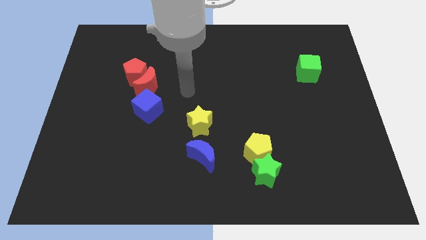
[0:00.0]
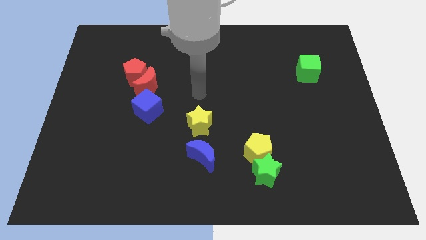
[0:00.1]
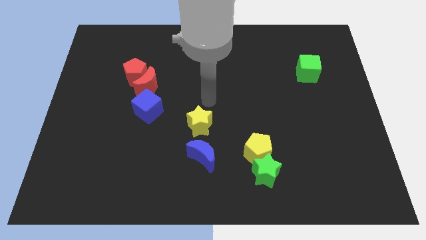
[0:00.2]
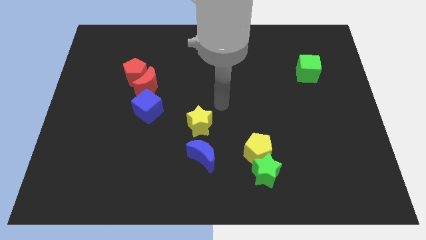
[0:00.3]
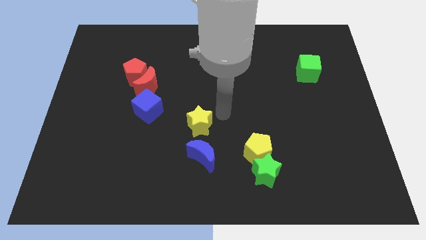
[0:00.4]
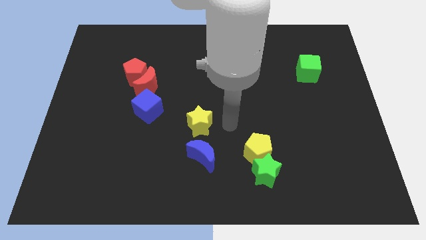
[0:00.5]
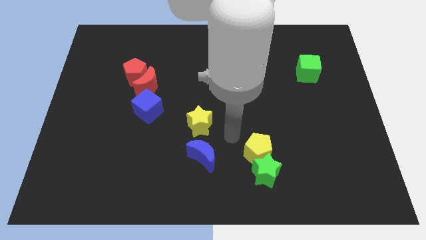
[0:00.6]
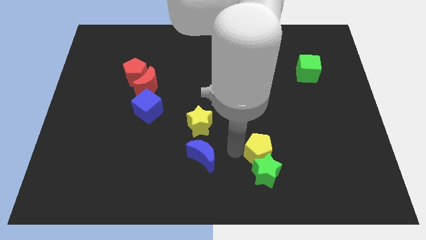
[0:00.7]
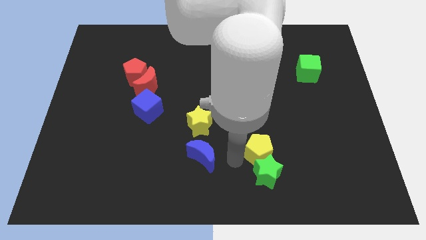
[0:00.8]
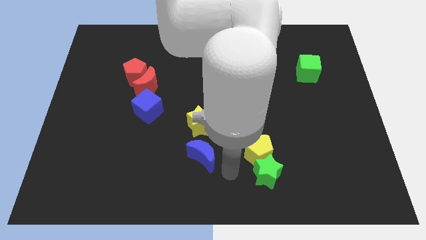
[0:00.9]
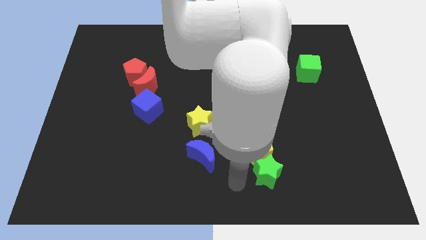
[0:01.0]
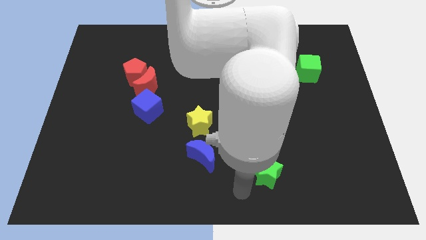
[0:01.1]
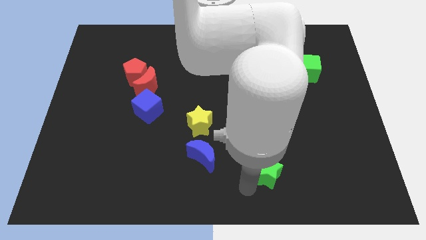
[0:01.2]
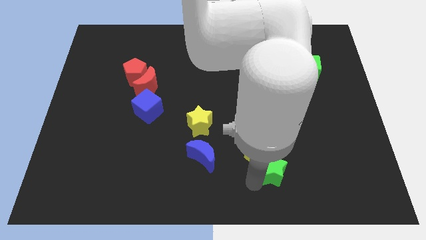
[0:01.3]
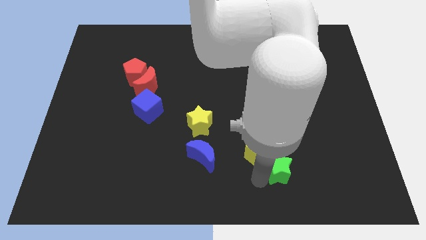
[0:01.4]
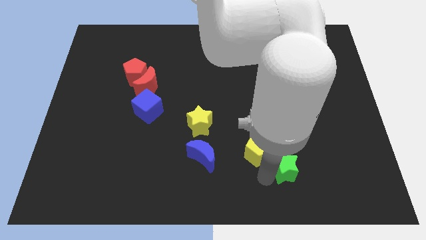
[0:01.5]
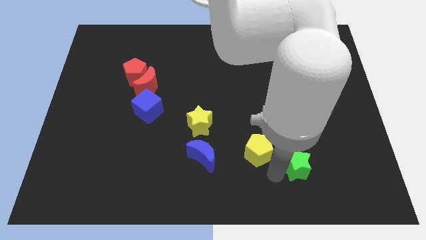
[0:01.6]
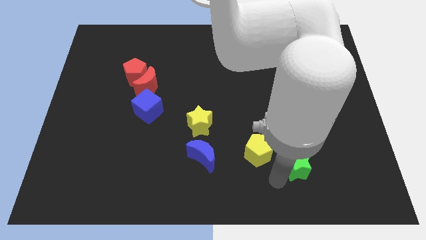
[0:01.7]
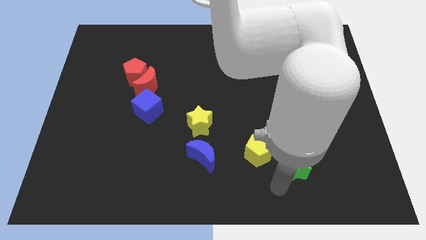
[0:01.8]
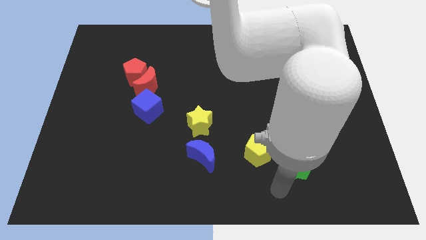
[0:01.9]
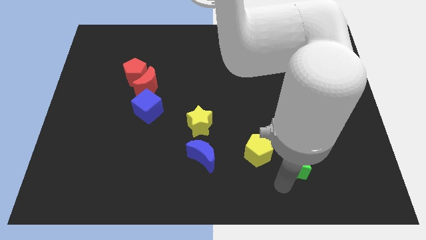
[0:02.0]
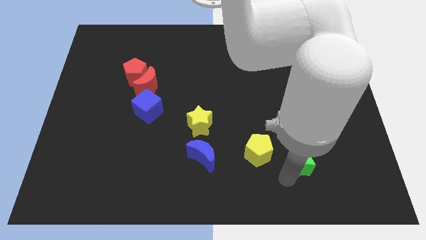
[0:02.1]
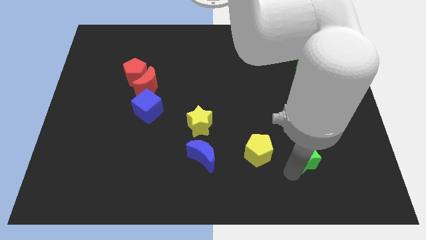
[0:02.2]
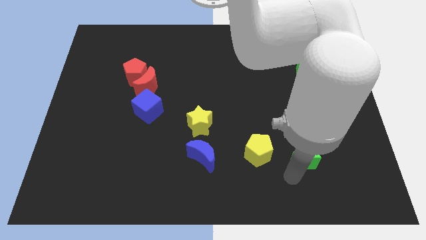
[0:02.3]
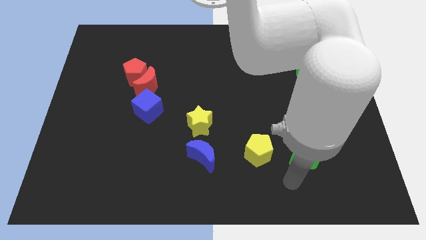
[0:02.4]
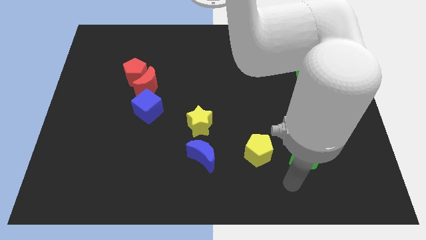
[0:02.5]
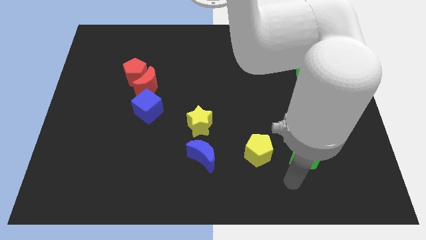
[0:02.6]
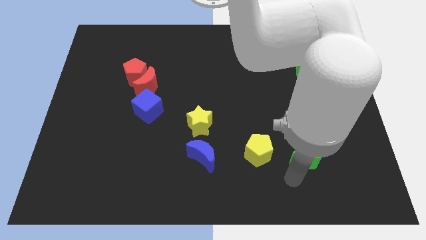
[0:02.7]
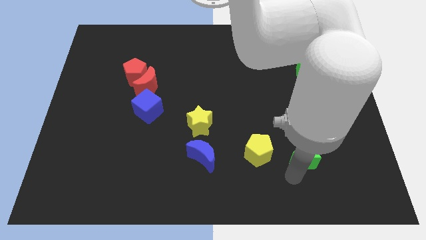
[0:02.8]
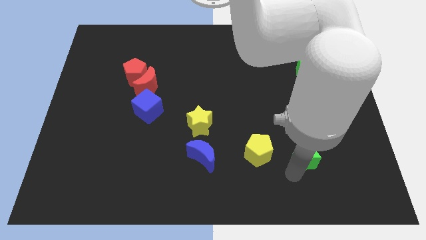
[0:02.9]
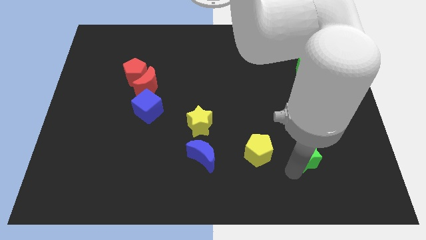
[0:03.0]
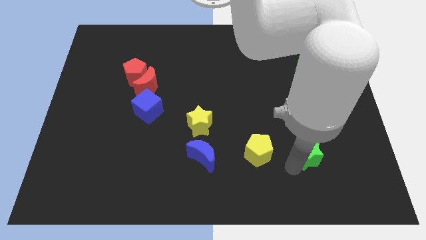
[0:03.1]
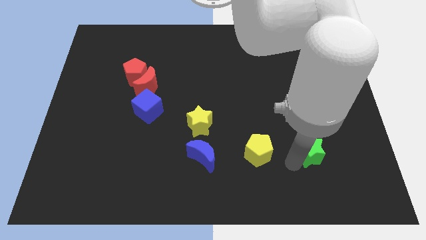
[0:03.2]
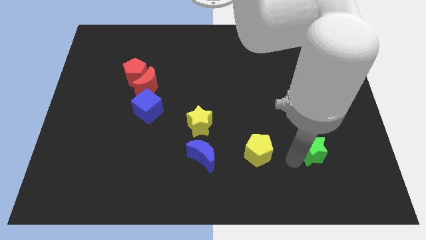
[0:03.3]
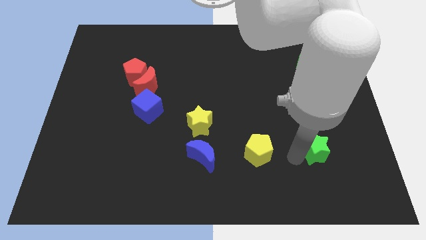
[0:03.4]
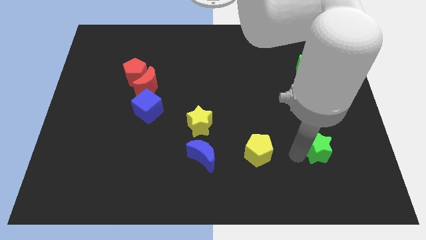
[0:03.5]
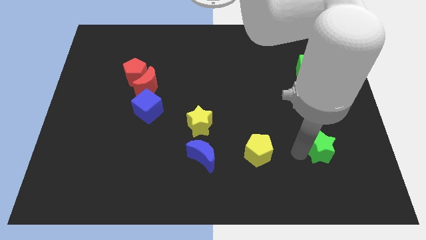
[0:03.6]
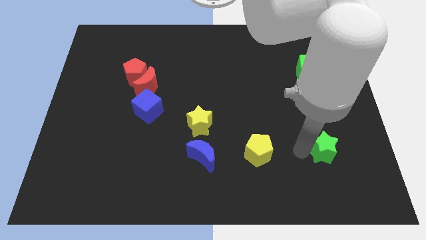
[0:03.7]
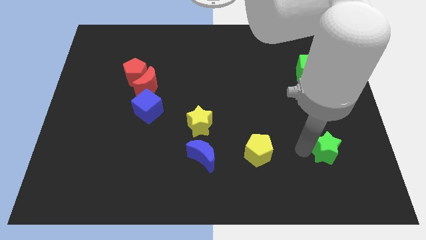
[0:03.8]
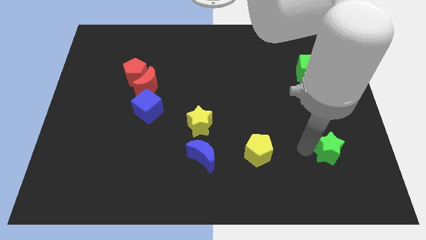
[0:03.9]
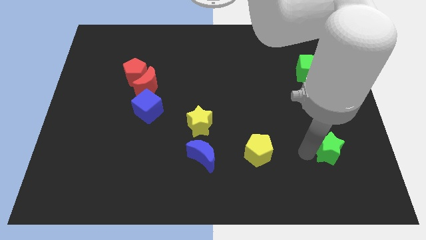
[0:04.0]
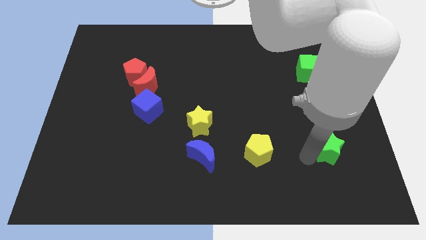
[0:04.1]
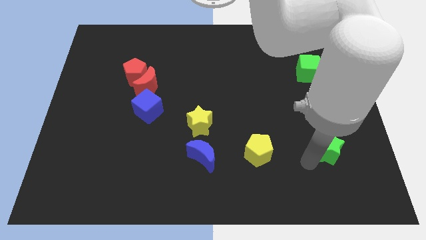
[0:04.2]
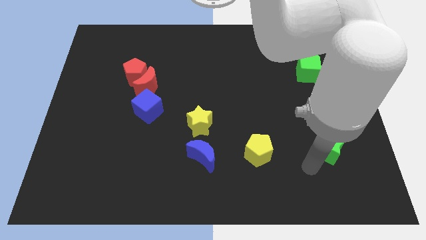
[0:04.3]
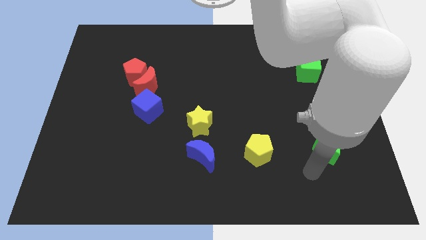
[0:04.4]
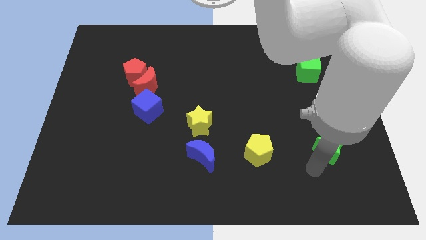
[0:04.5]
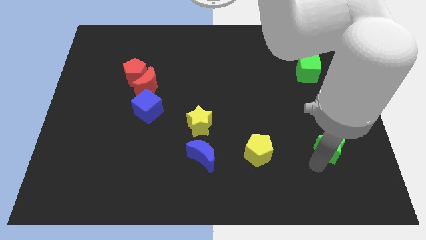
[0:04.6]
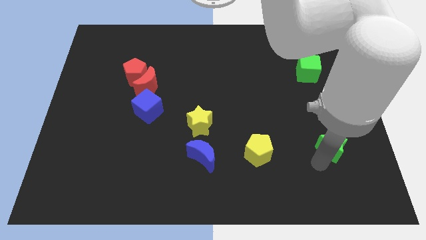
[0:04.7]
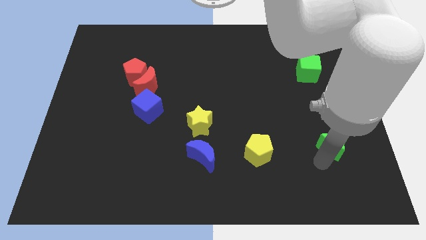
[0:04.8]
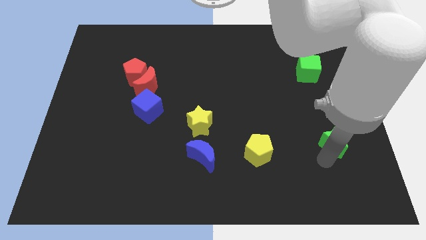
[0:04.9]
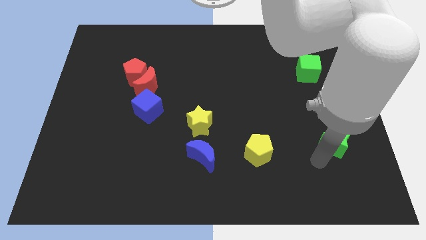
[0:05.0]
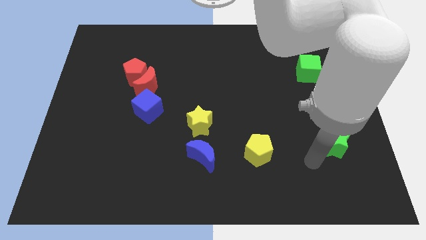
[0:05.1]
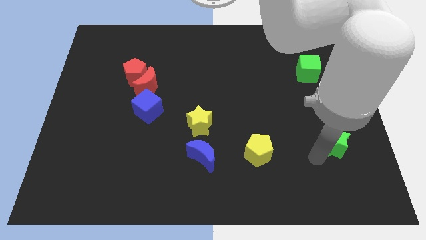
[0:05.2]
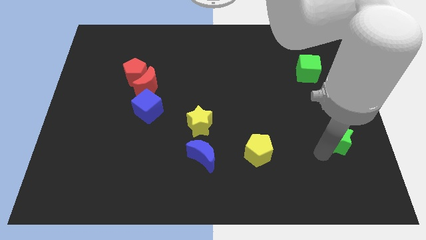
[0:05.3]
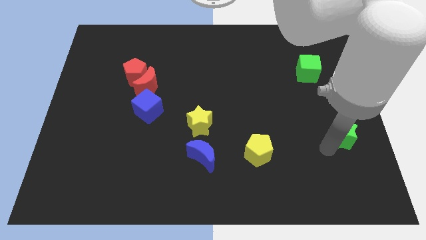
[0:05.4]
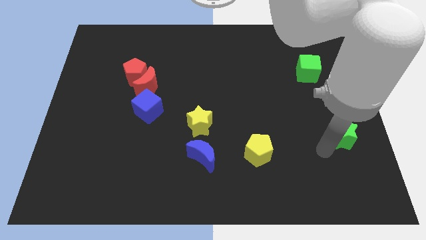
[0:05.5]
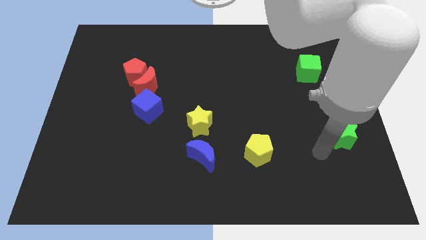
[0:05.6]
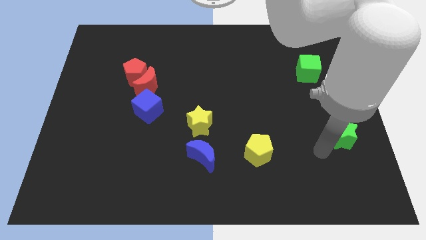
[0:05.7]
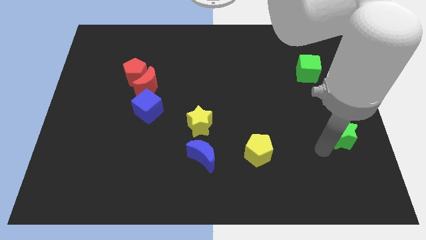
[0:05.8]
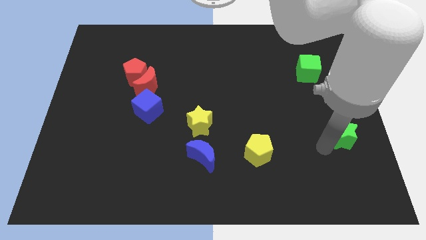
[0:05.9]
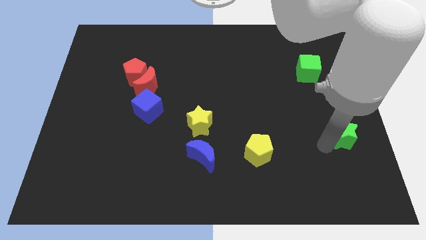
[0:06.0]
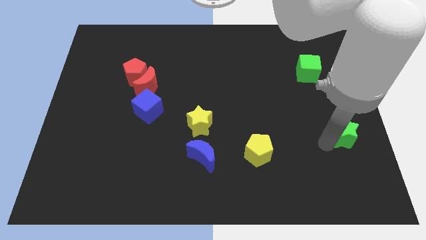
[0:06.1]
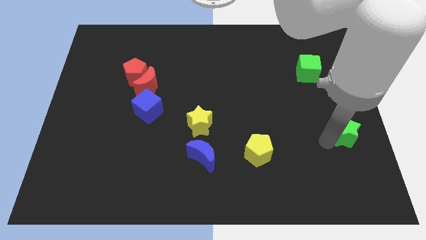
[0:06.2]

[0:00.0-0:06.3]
slide the green star to the right side

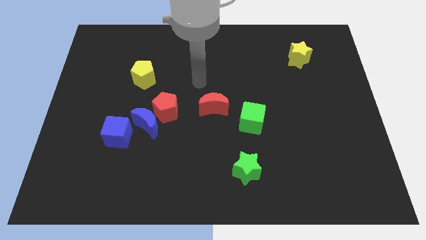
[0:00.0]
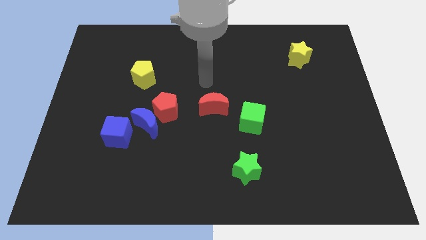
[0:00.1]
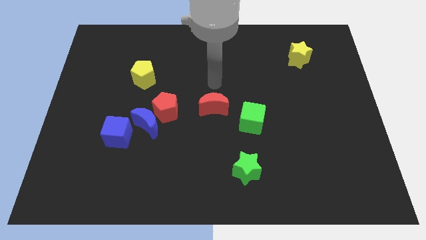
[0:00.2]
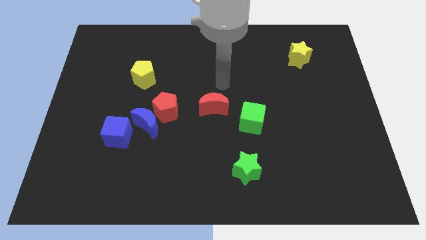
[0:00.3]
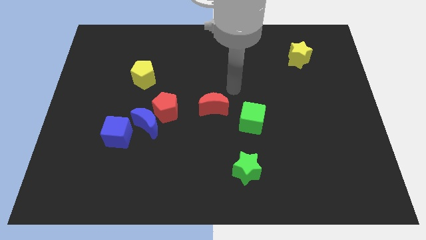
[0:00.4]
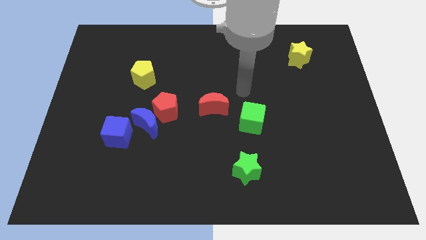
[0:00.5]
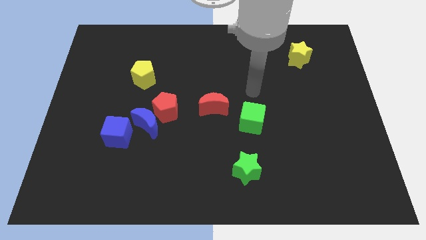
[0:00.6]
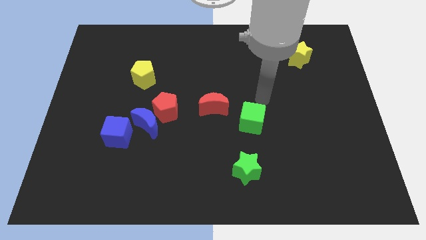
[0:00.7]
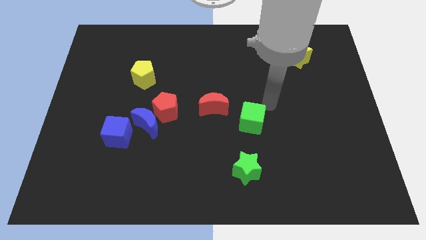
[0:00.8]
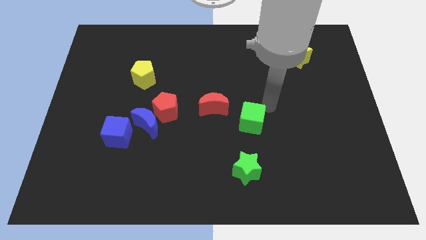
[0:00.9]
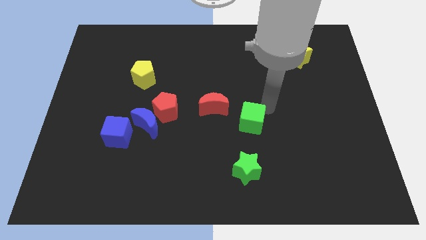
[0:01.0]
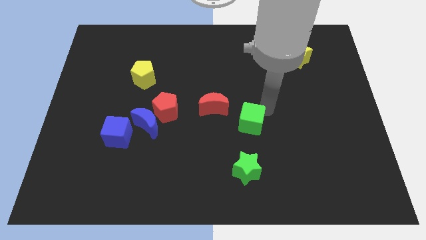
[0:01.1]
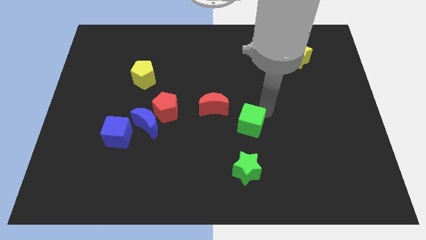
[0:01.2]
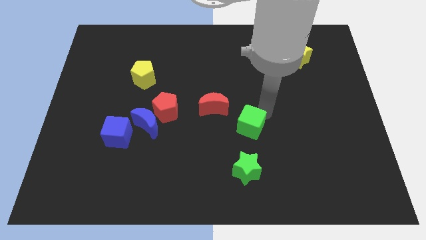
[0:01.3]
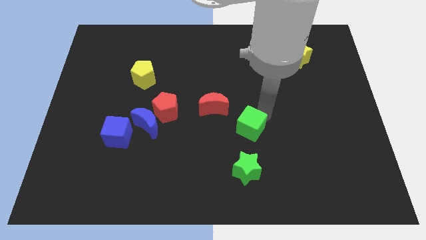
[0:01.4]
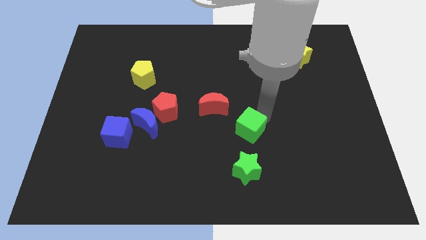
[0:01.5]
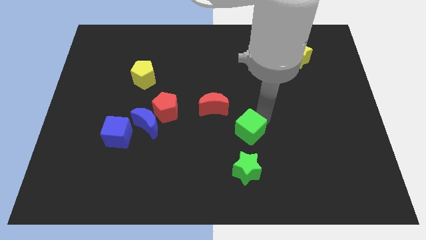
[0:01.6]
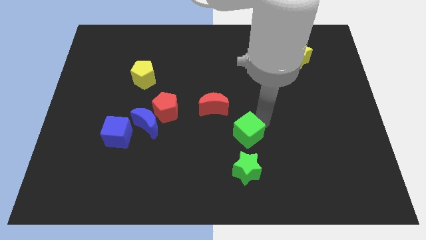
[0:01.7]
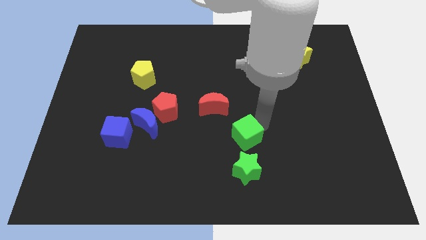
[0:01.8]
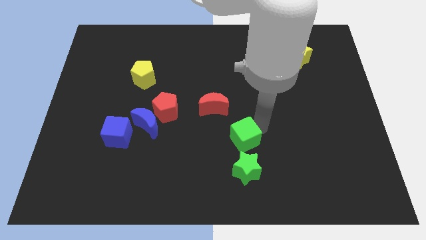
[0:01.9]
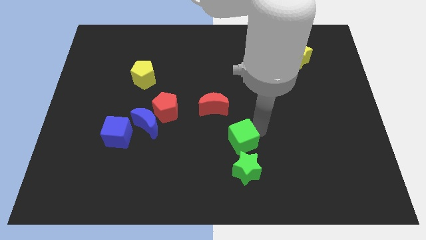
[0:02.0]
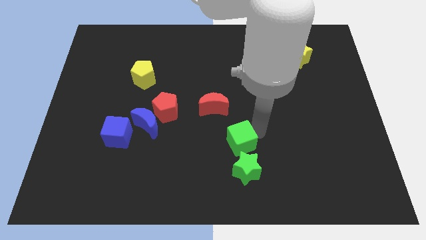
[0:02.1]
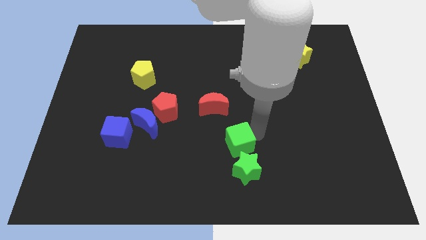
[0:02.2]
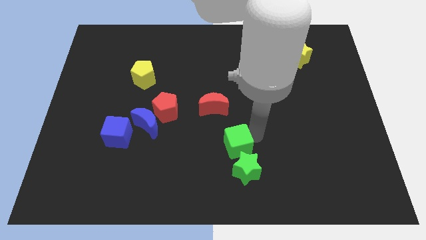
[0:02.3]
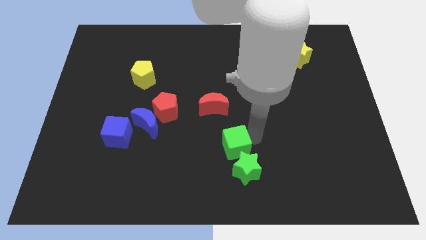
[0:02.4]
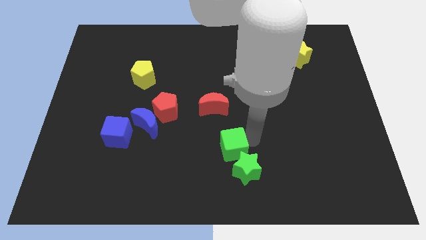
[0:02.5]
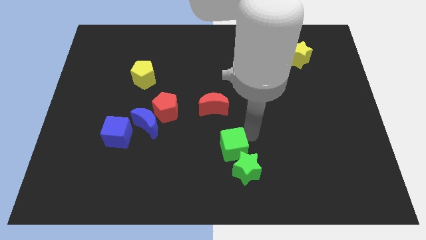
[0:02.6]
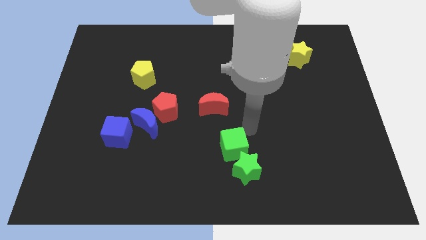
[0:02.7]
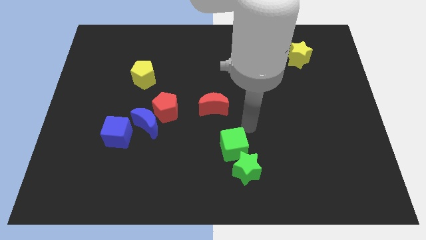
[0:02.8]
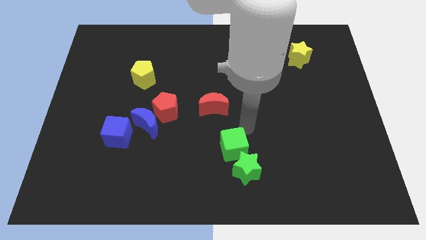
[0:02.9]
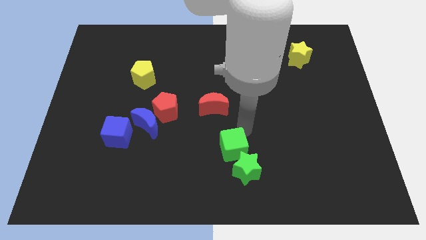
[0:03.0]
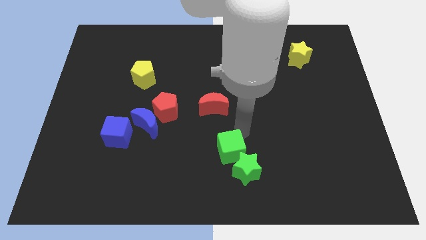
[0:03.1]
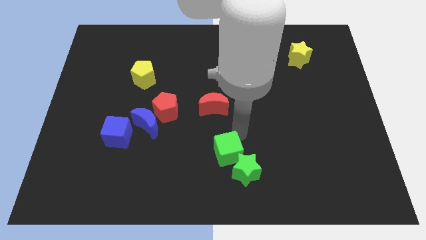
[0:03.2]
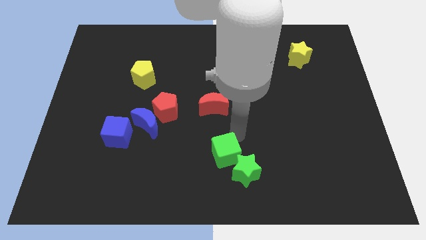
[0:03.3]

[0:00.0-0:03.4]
move the green cube to the bottom
